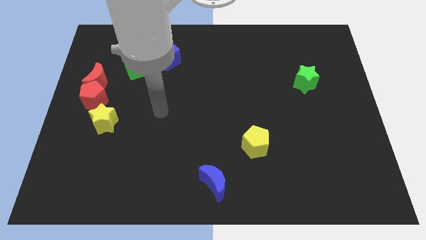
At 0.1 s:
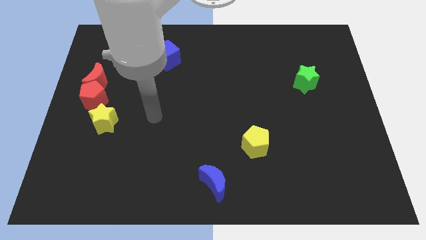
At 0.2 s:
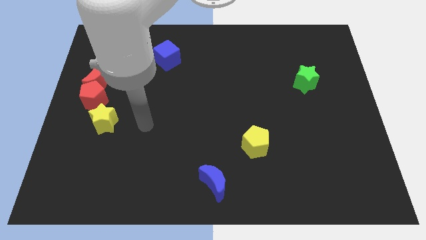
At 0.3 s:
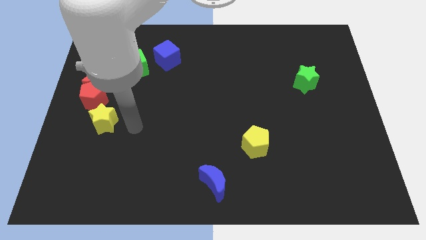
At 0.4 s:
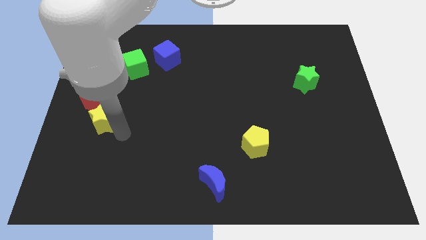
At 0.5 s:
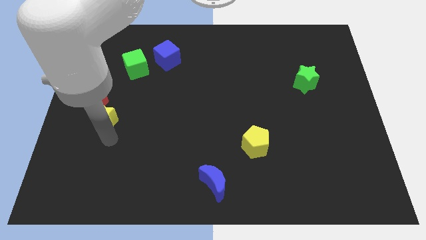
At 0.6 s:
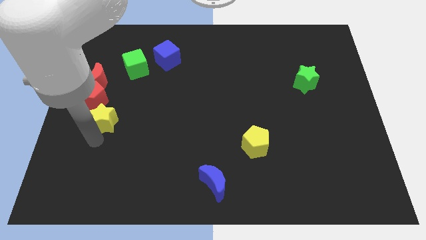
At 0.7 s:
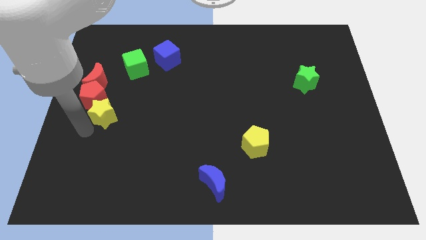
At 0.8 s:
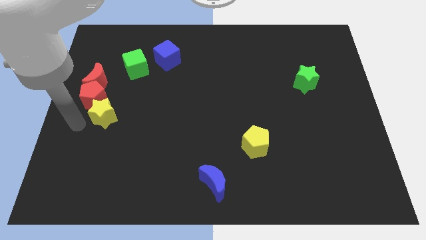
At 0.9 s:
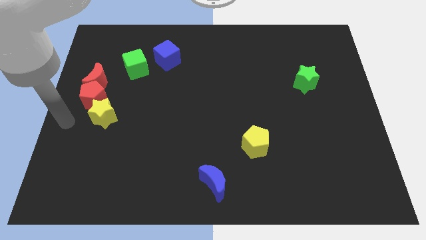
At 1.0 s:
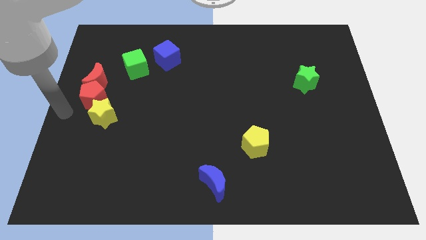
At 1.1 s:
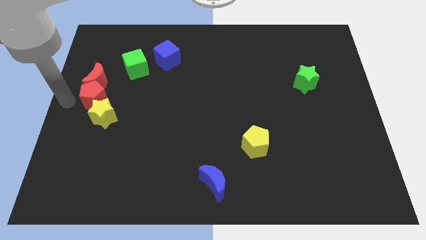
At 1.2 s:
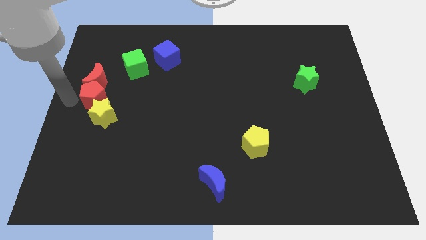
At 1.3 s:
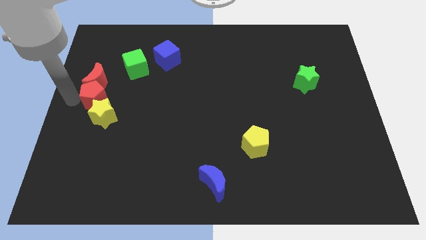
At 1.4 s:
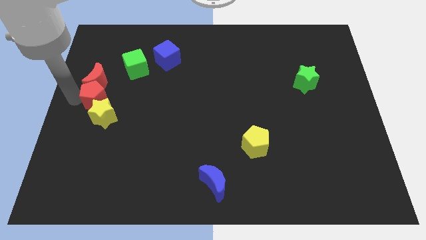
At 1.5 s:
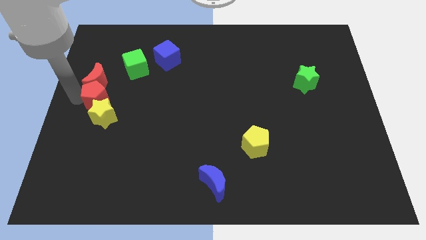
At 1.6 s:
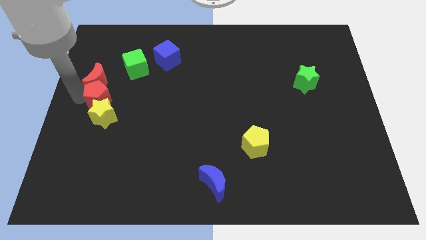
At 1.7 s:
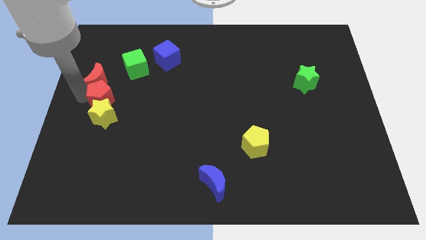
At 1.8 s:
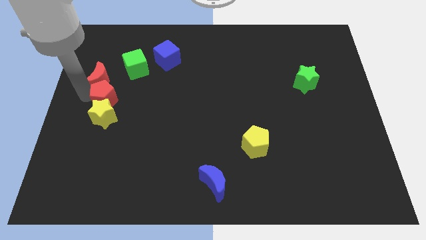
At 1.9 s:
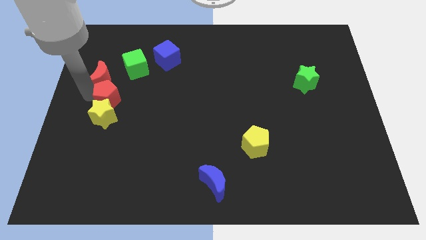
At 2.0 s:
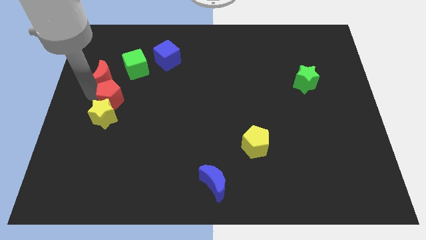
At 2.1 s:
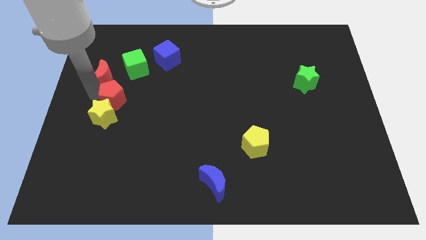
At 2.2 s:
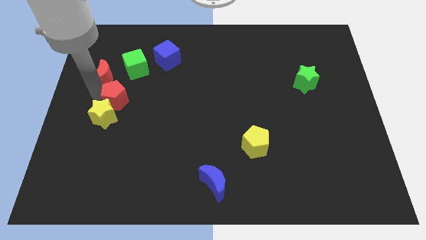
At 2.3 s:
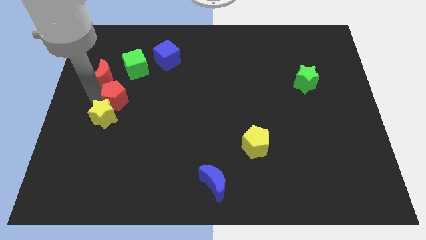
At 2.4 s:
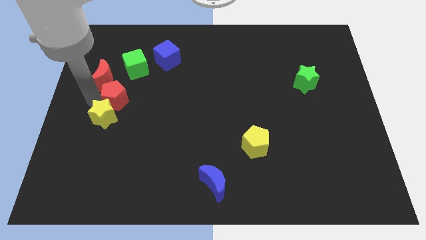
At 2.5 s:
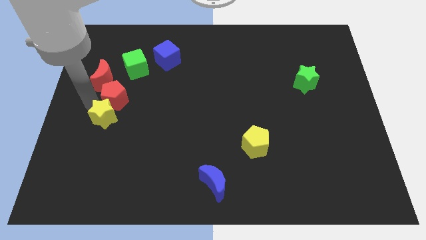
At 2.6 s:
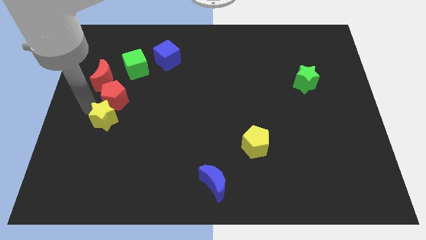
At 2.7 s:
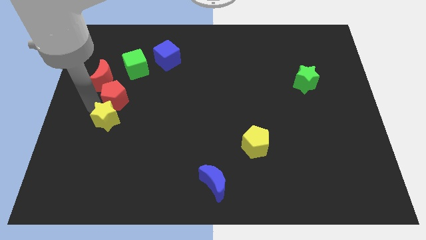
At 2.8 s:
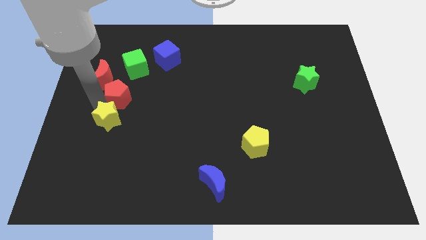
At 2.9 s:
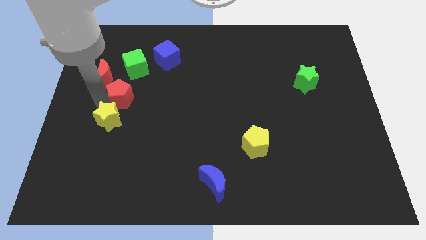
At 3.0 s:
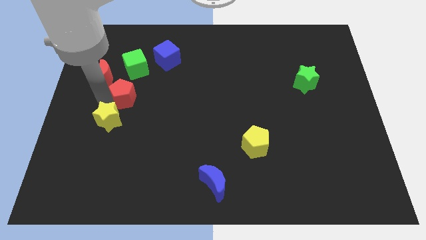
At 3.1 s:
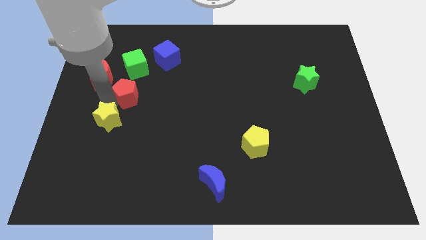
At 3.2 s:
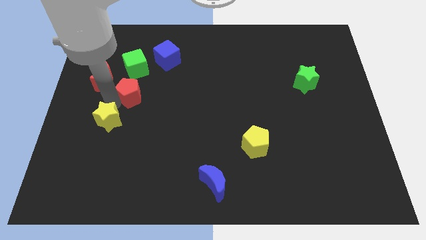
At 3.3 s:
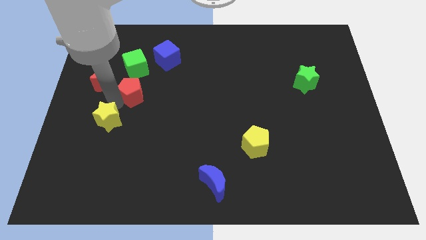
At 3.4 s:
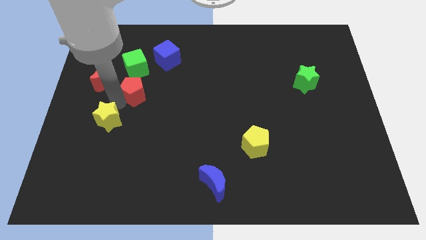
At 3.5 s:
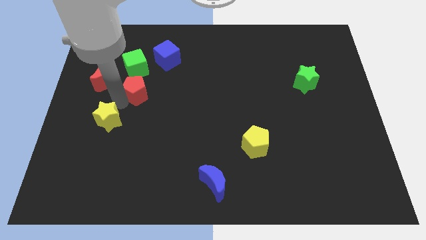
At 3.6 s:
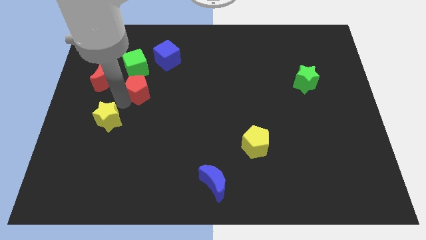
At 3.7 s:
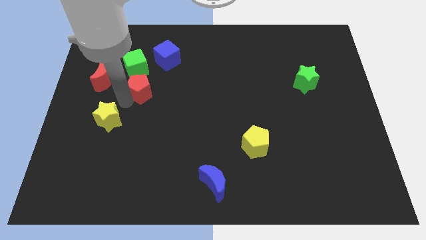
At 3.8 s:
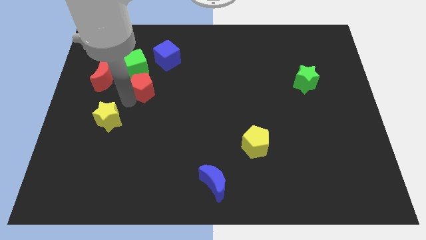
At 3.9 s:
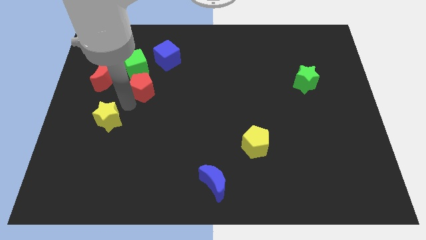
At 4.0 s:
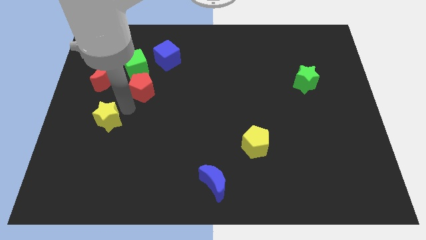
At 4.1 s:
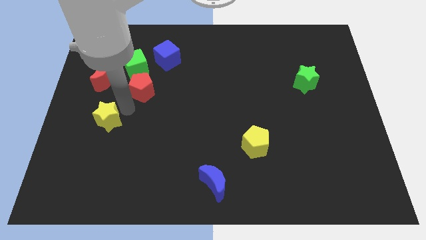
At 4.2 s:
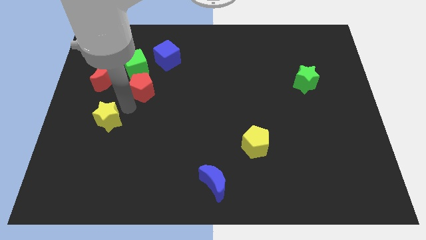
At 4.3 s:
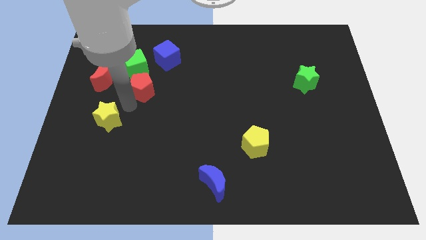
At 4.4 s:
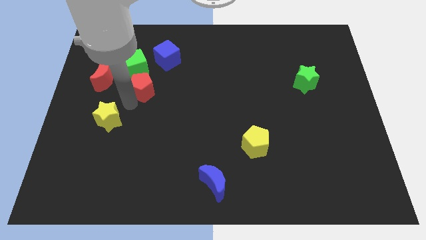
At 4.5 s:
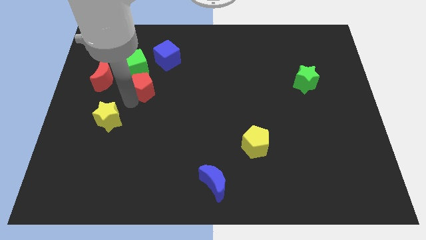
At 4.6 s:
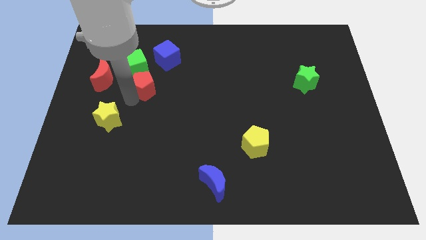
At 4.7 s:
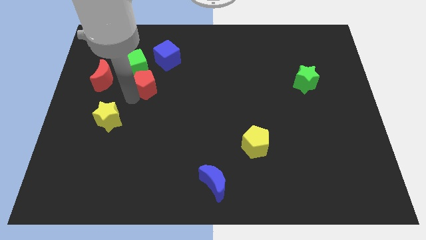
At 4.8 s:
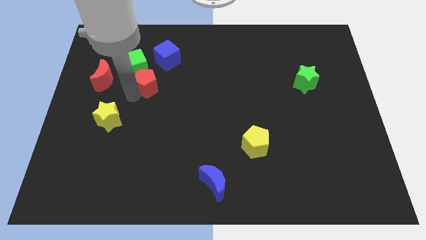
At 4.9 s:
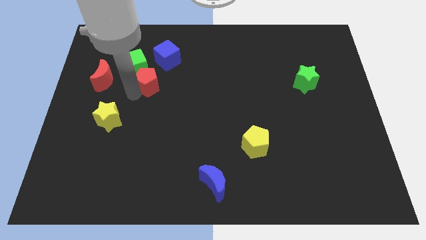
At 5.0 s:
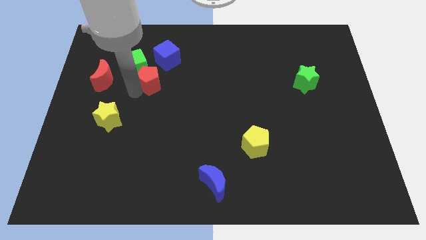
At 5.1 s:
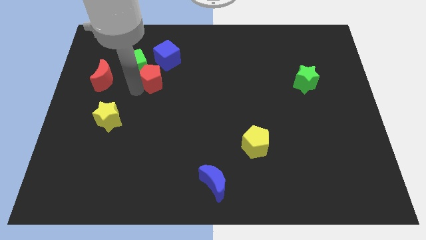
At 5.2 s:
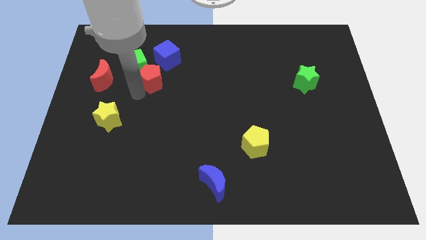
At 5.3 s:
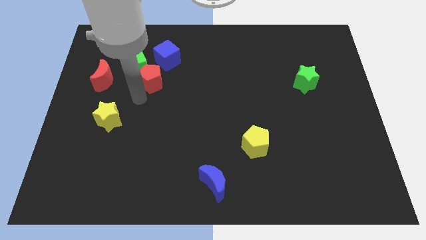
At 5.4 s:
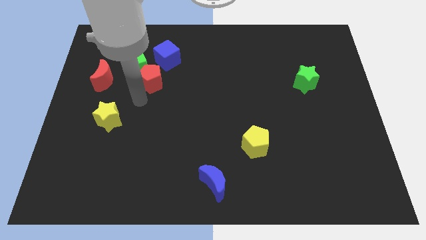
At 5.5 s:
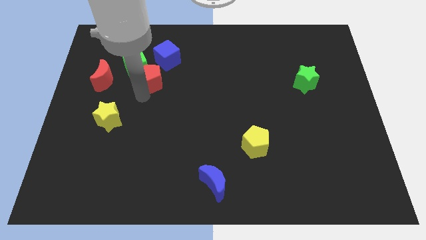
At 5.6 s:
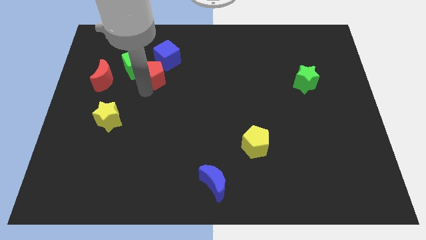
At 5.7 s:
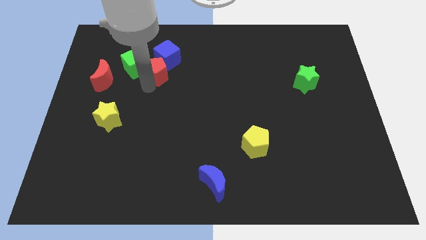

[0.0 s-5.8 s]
slide the red pentagon towards the blue cube
